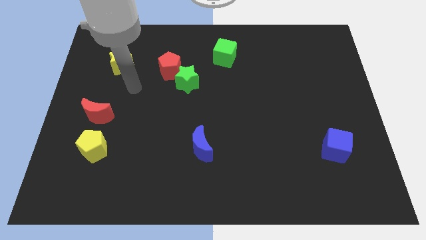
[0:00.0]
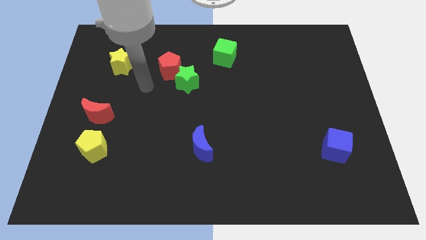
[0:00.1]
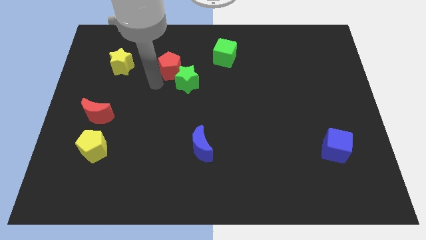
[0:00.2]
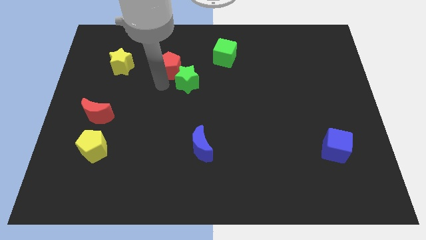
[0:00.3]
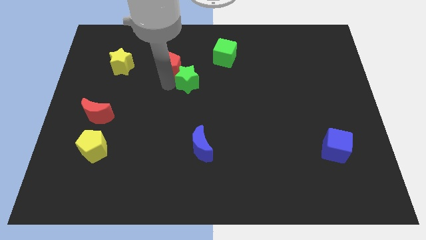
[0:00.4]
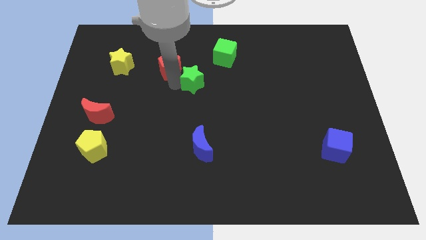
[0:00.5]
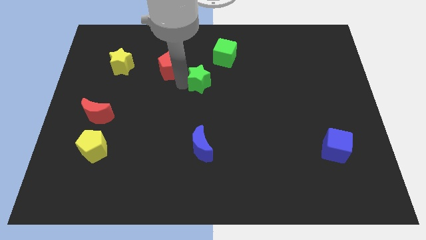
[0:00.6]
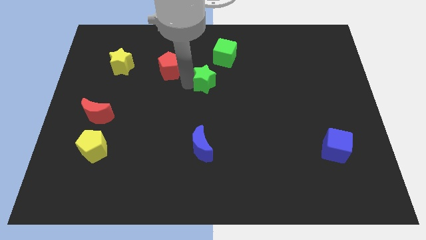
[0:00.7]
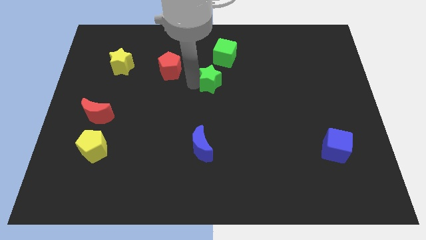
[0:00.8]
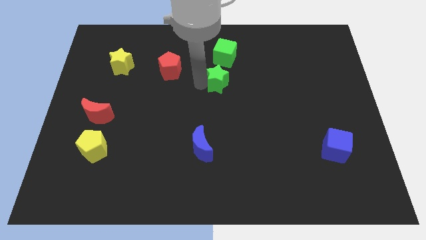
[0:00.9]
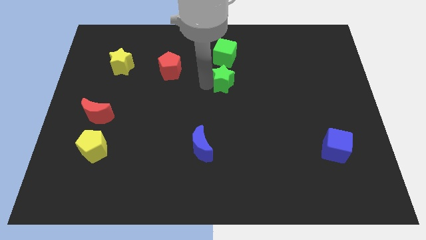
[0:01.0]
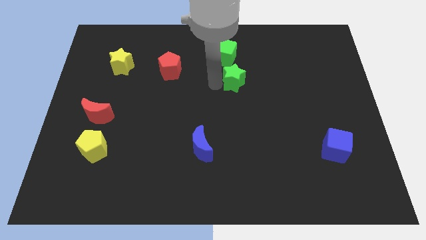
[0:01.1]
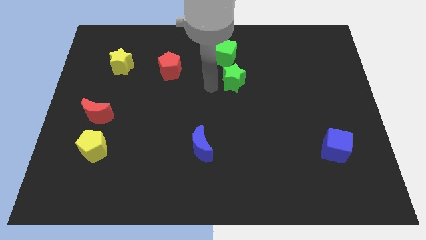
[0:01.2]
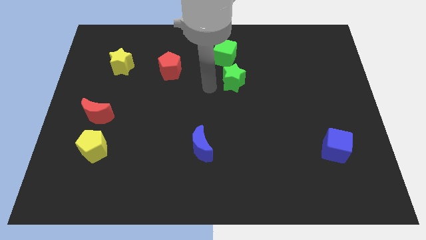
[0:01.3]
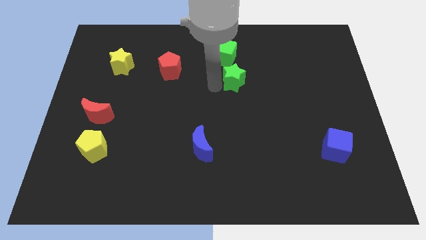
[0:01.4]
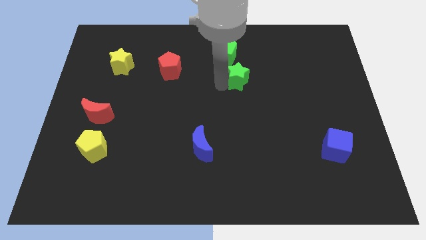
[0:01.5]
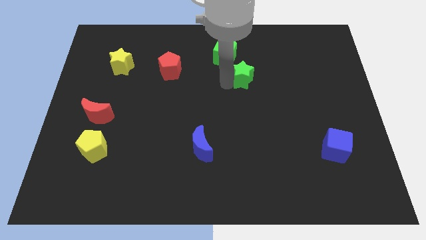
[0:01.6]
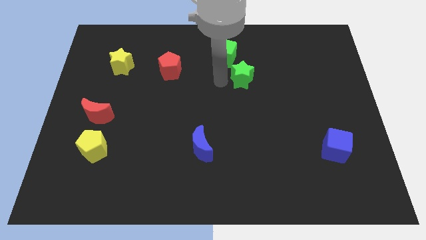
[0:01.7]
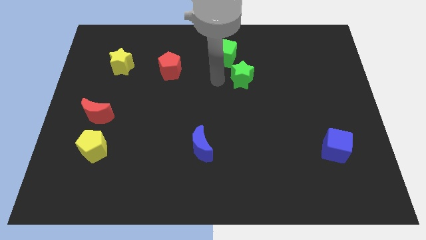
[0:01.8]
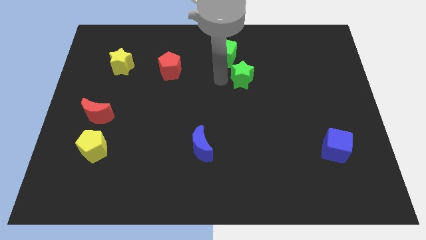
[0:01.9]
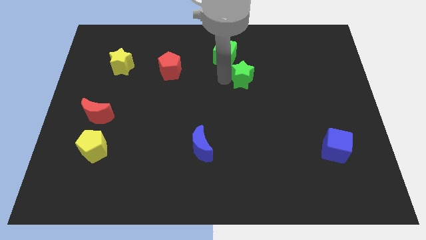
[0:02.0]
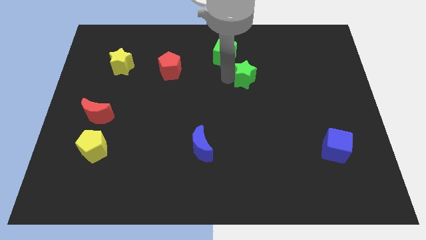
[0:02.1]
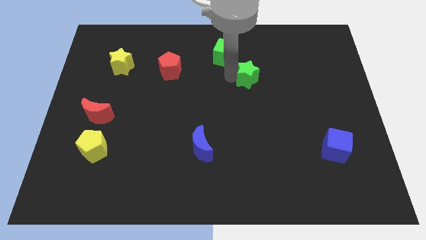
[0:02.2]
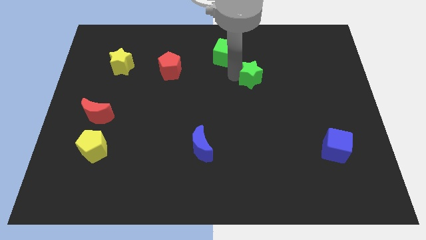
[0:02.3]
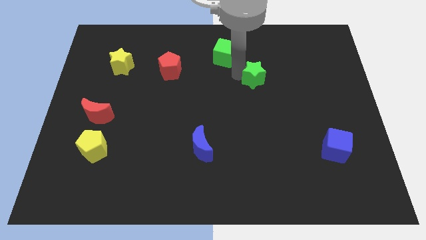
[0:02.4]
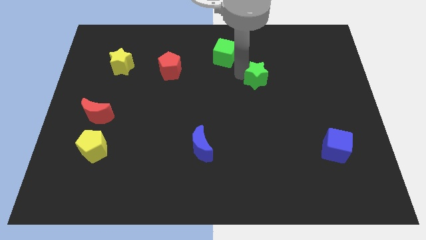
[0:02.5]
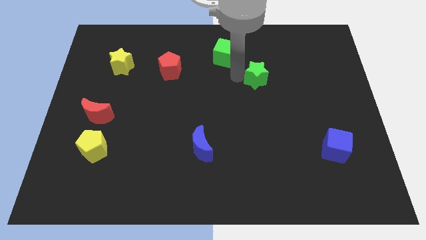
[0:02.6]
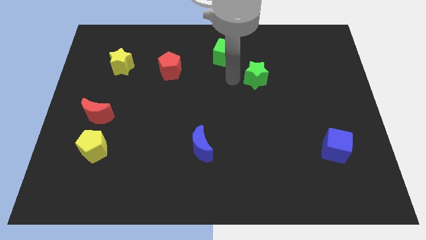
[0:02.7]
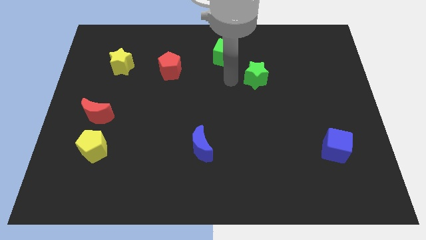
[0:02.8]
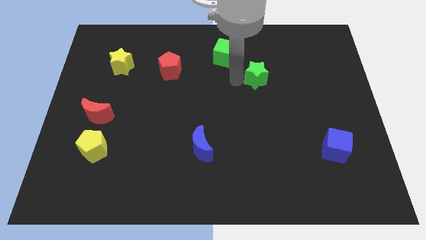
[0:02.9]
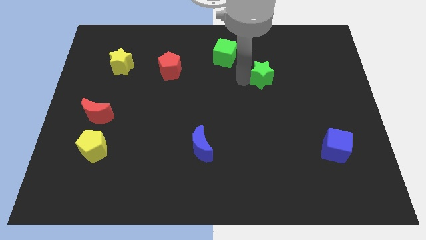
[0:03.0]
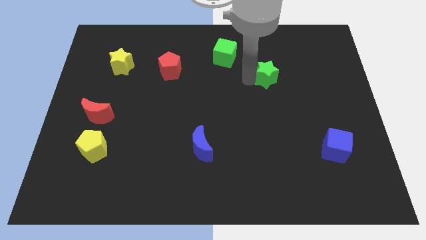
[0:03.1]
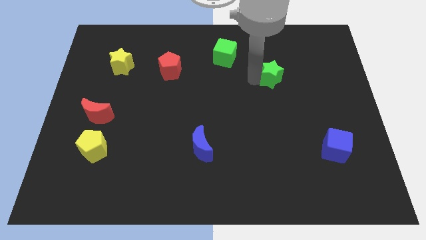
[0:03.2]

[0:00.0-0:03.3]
slide the green star right

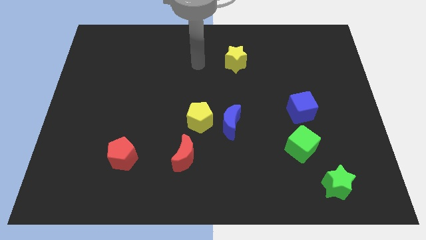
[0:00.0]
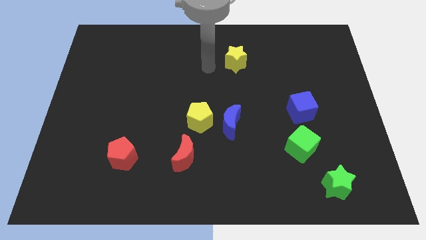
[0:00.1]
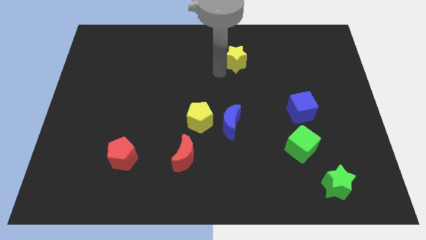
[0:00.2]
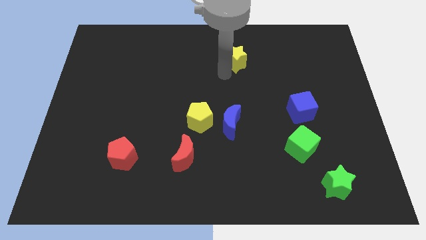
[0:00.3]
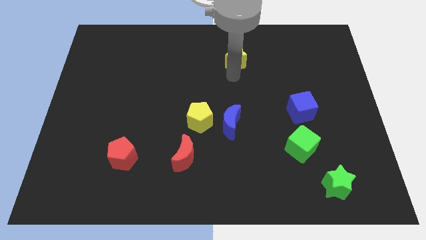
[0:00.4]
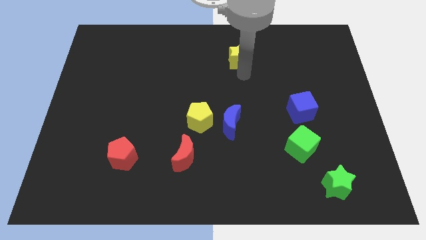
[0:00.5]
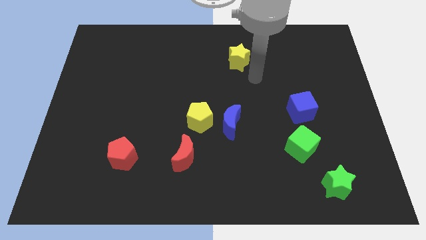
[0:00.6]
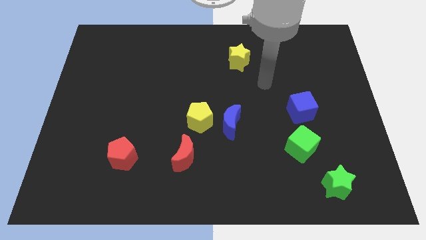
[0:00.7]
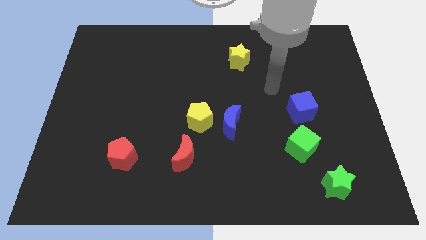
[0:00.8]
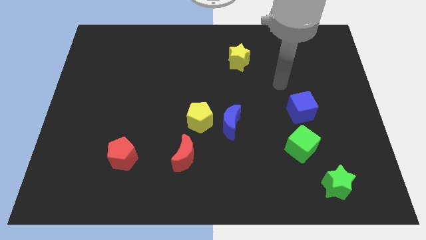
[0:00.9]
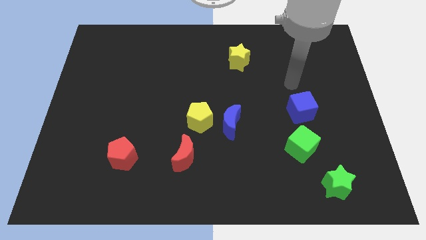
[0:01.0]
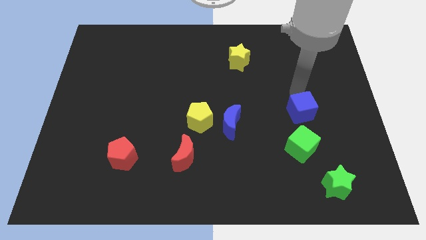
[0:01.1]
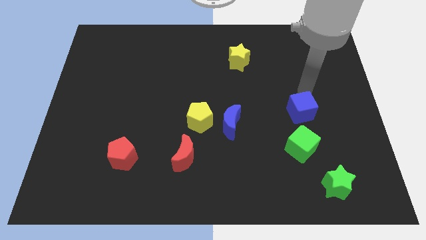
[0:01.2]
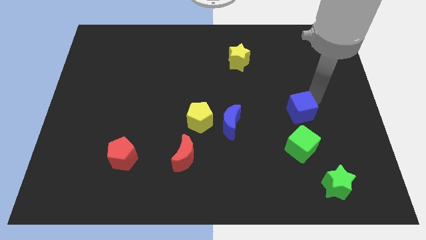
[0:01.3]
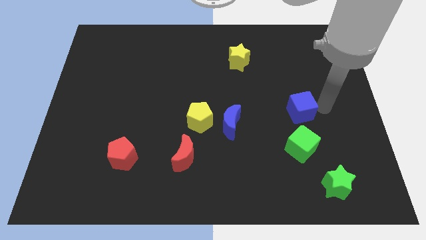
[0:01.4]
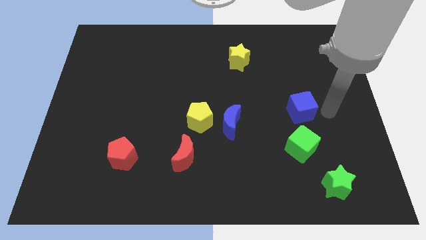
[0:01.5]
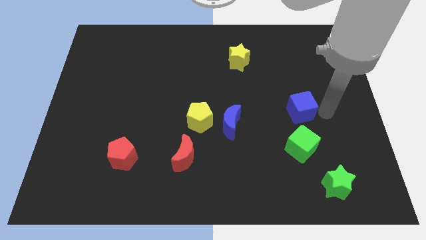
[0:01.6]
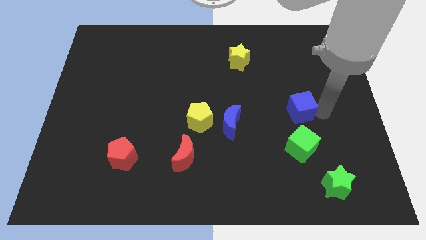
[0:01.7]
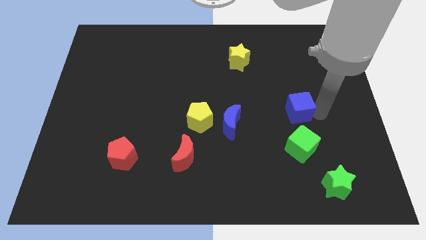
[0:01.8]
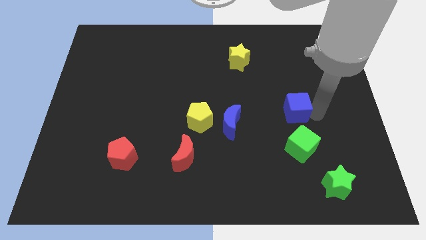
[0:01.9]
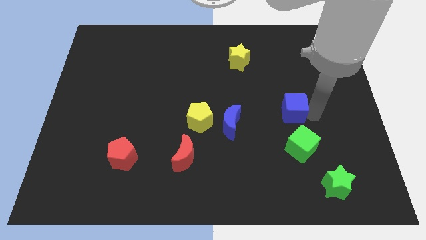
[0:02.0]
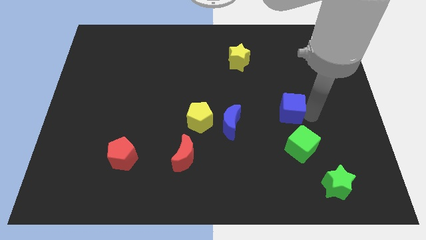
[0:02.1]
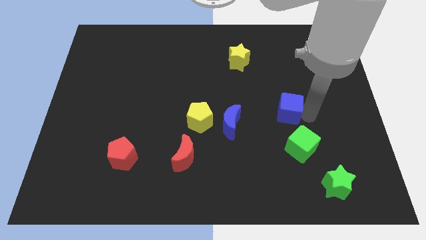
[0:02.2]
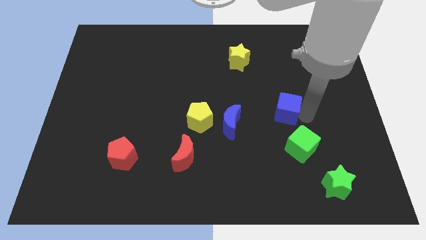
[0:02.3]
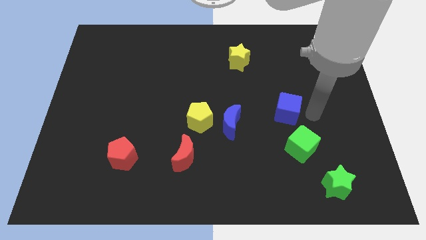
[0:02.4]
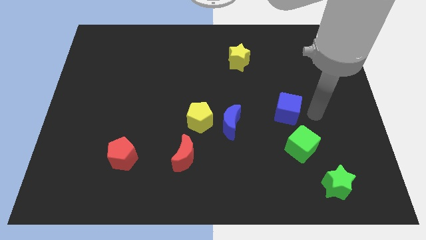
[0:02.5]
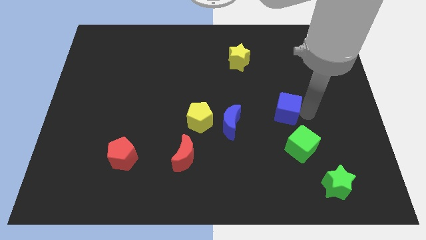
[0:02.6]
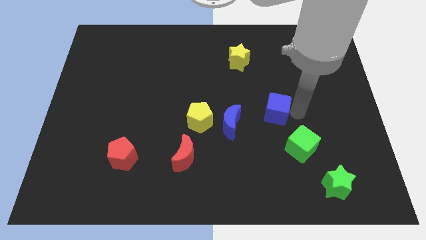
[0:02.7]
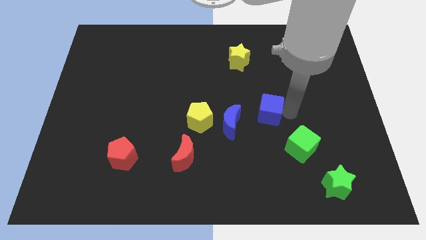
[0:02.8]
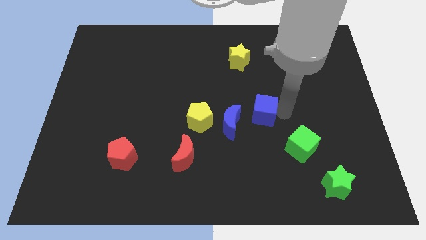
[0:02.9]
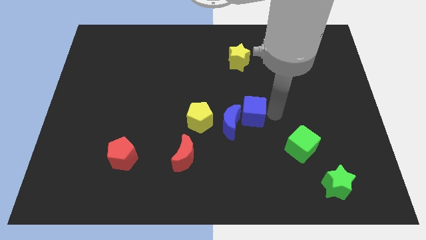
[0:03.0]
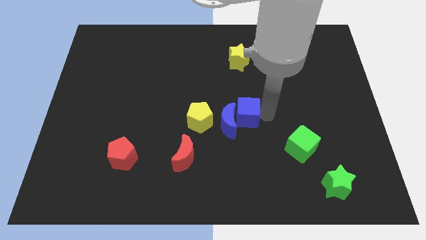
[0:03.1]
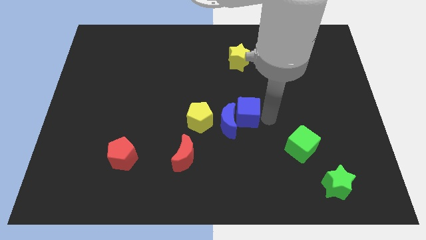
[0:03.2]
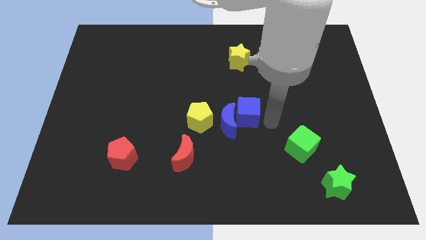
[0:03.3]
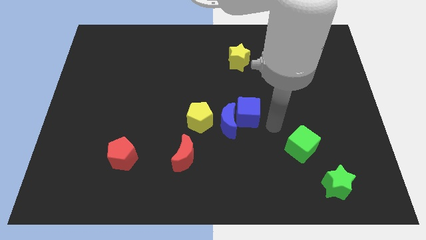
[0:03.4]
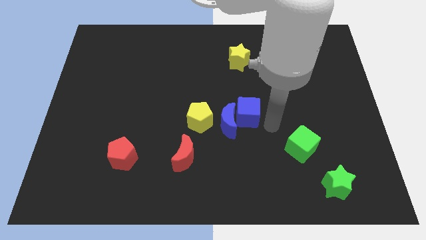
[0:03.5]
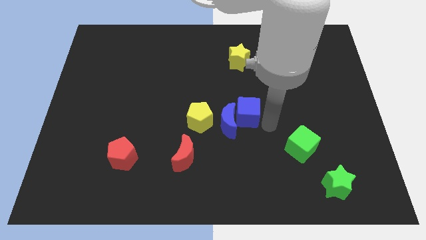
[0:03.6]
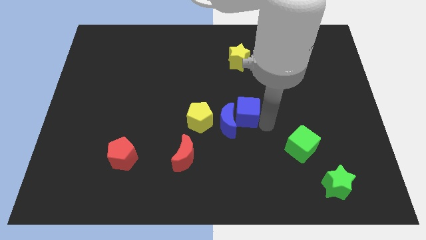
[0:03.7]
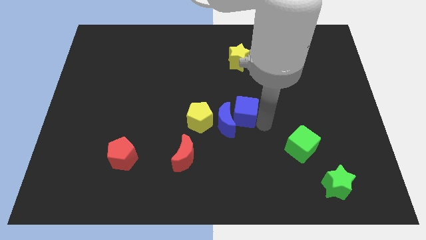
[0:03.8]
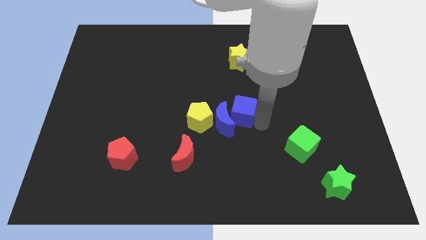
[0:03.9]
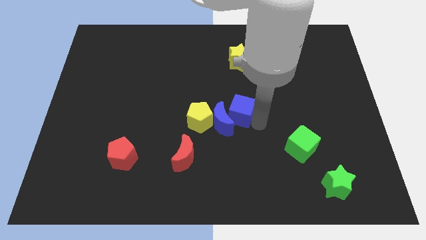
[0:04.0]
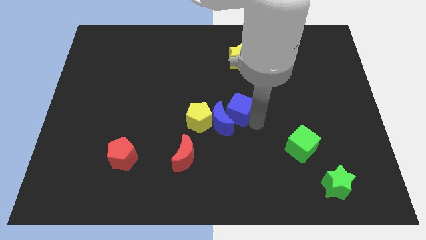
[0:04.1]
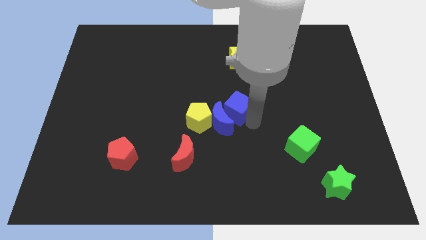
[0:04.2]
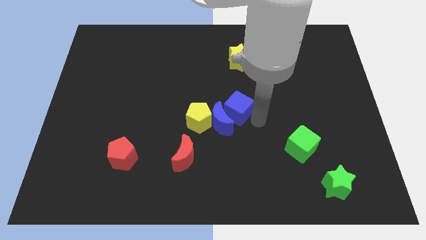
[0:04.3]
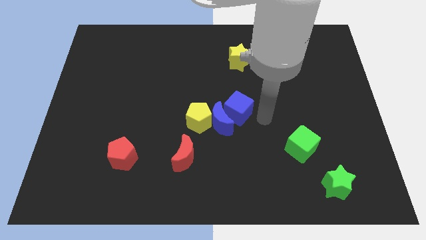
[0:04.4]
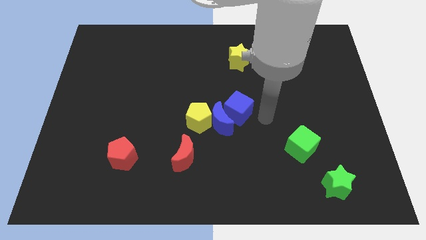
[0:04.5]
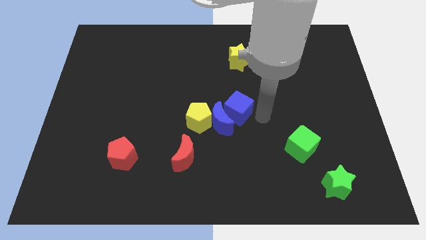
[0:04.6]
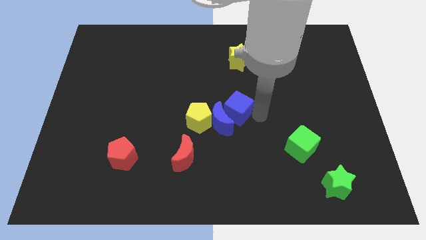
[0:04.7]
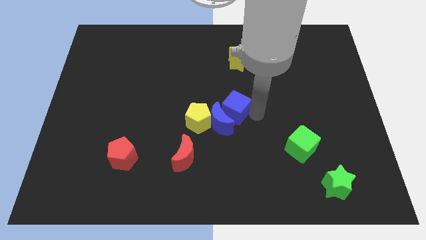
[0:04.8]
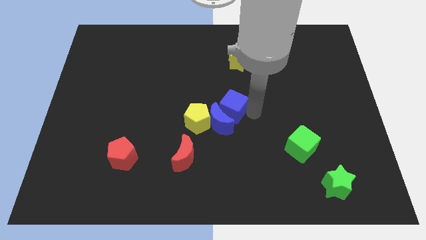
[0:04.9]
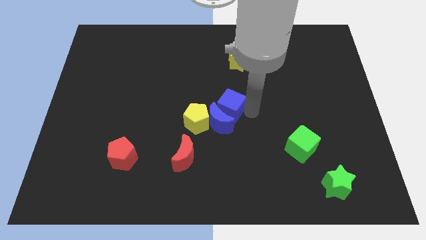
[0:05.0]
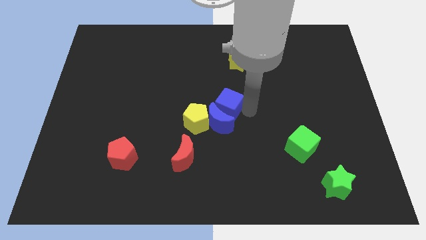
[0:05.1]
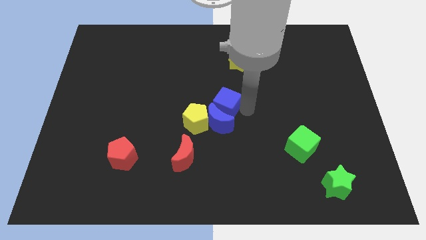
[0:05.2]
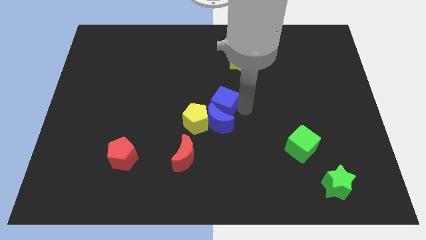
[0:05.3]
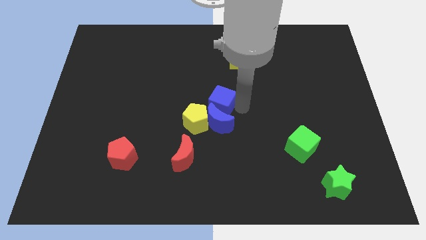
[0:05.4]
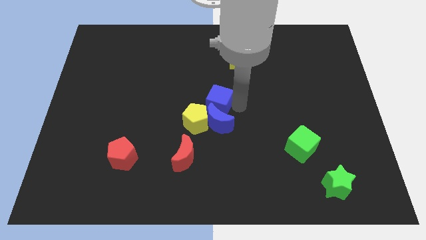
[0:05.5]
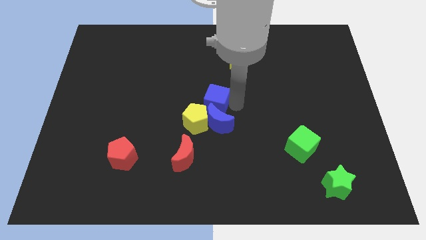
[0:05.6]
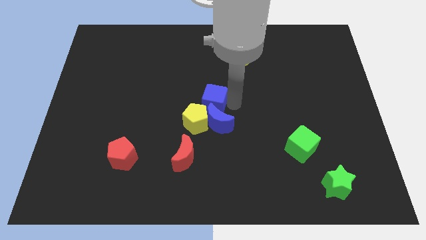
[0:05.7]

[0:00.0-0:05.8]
push the blue cube to the left
